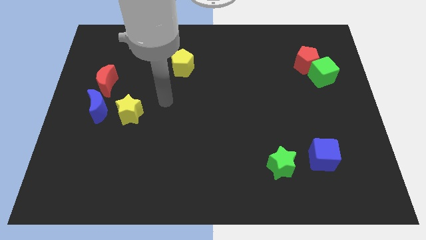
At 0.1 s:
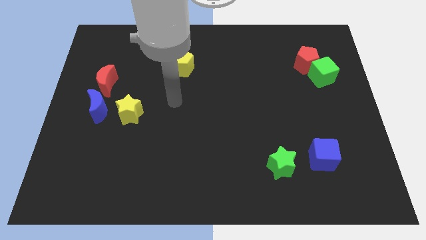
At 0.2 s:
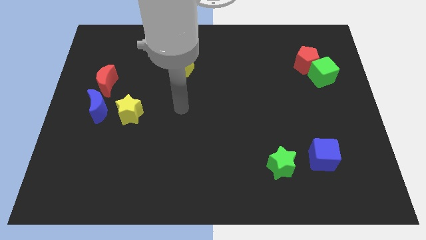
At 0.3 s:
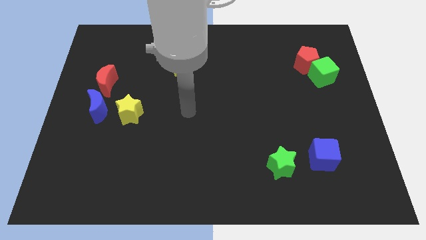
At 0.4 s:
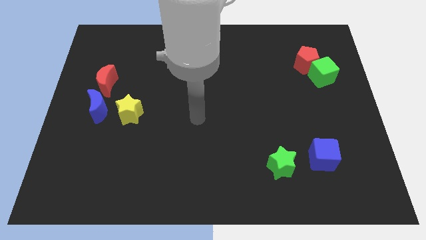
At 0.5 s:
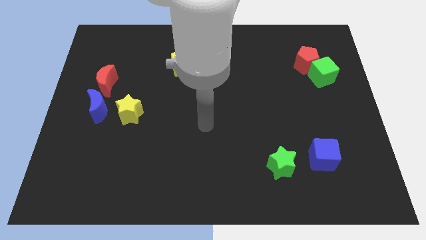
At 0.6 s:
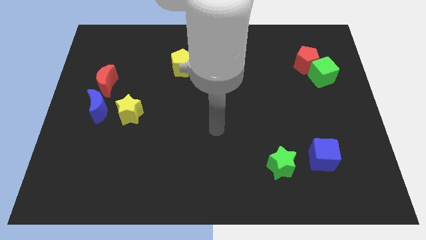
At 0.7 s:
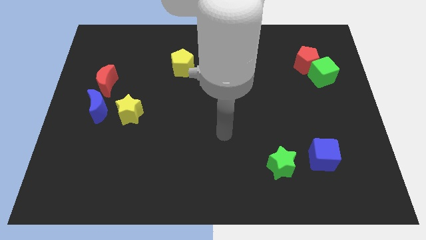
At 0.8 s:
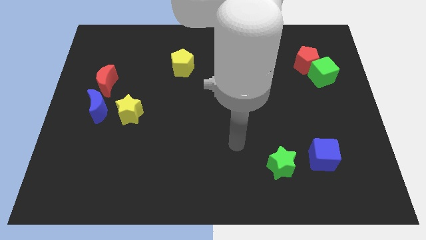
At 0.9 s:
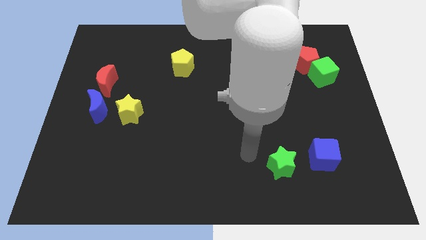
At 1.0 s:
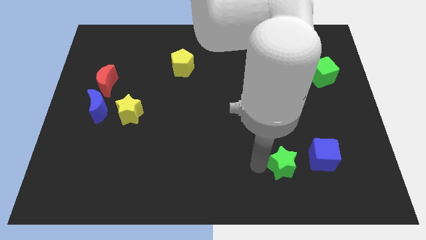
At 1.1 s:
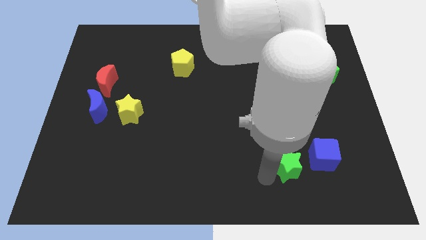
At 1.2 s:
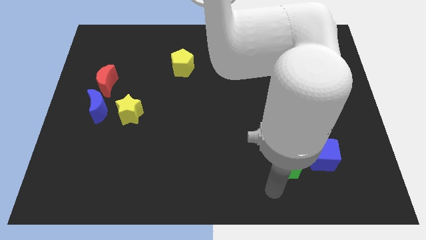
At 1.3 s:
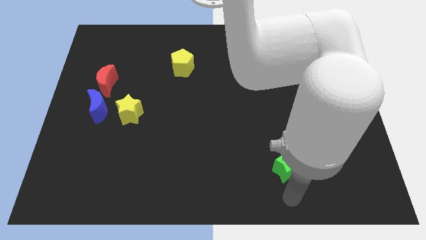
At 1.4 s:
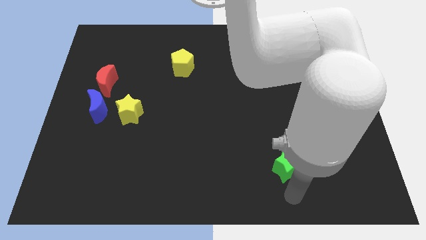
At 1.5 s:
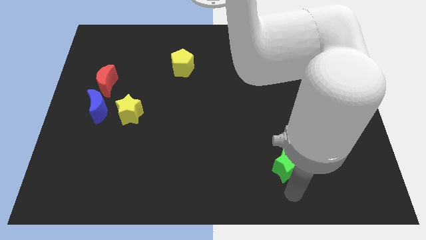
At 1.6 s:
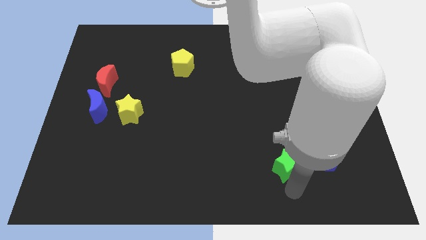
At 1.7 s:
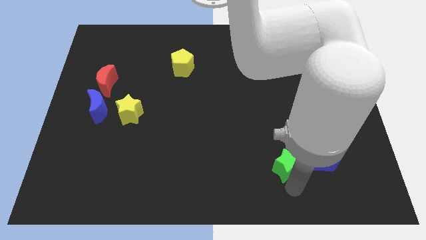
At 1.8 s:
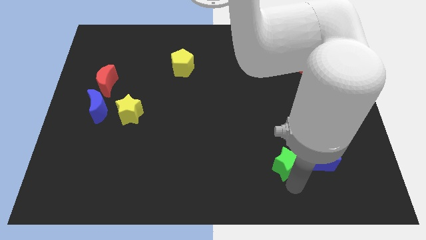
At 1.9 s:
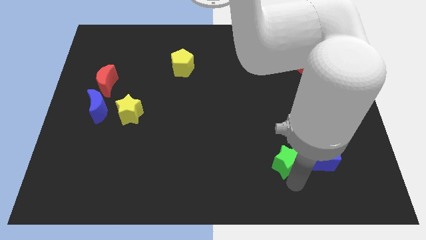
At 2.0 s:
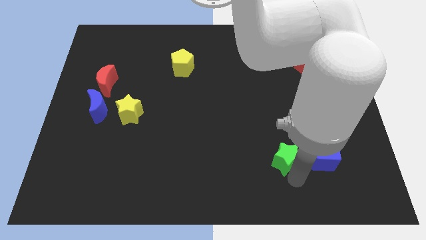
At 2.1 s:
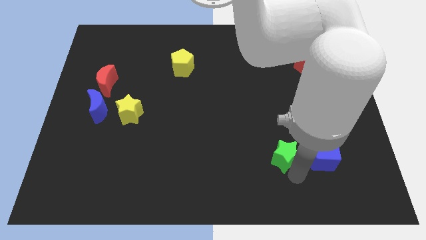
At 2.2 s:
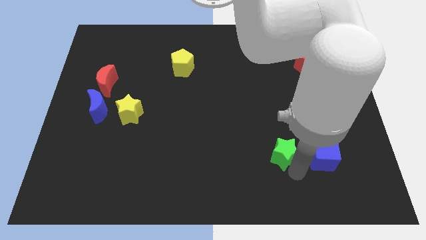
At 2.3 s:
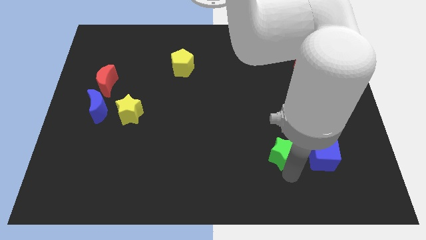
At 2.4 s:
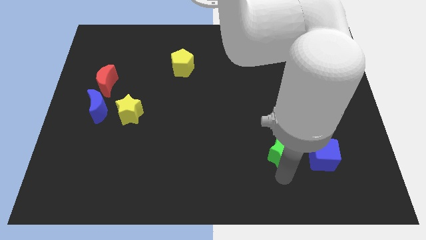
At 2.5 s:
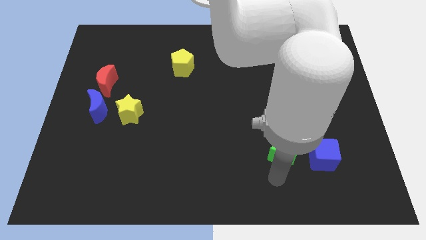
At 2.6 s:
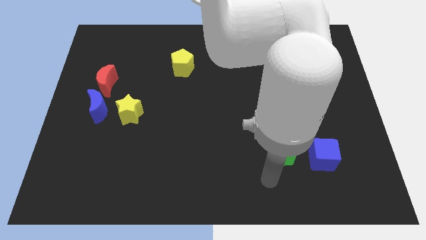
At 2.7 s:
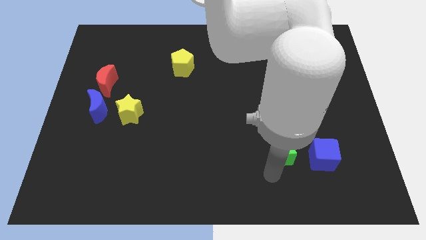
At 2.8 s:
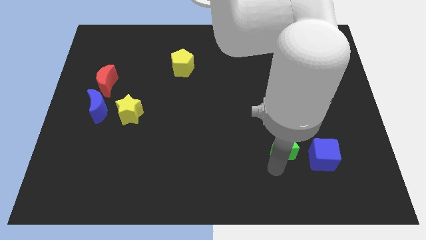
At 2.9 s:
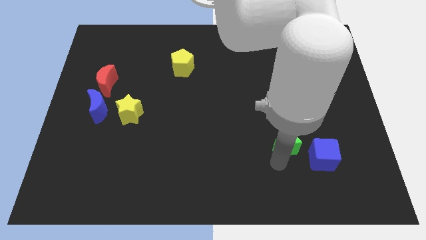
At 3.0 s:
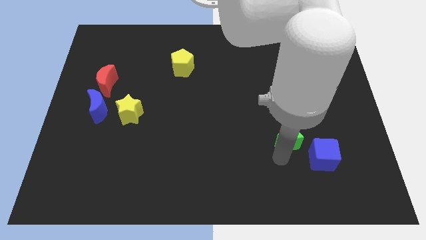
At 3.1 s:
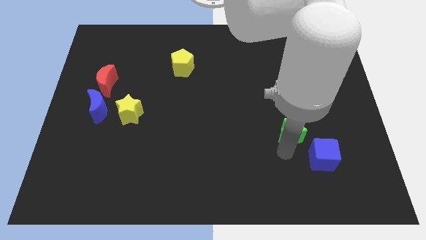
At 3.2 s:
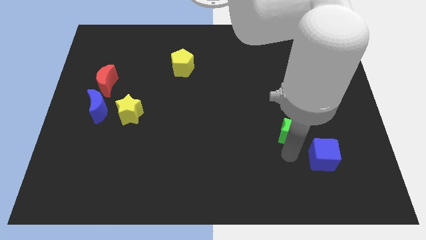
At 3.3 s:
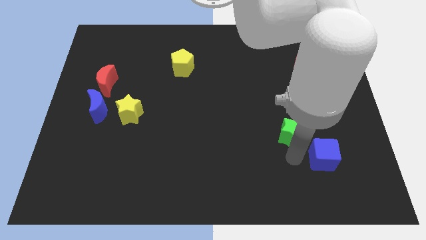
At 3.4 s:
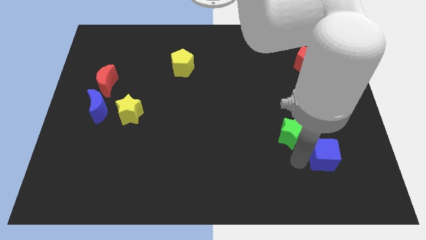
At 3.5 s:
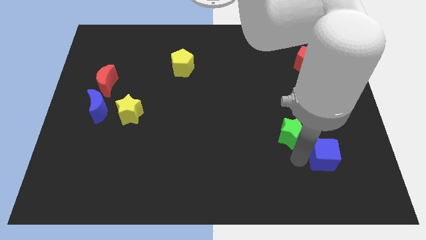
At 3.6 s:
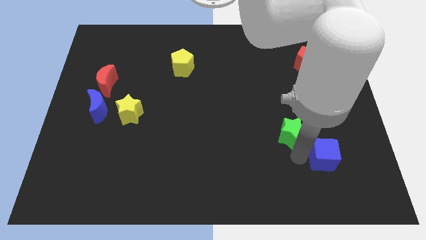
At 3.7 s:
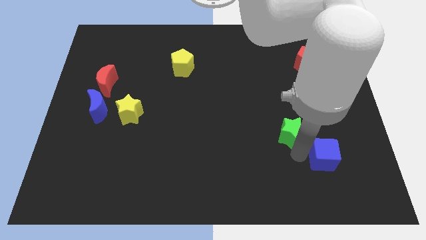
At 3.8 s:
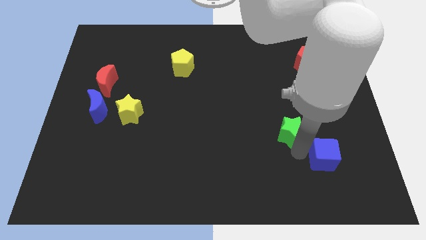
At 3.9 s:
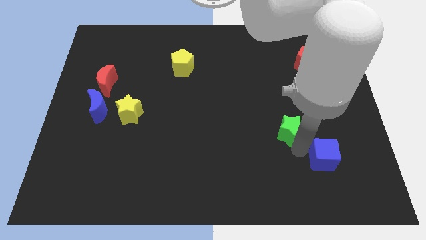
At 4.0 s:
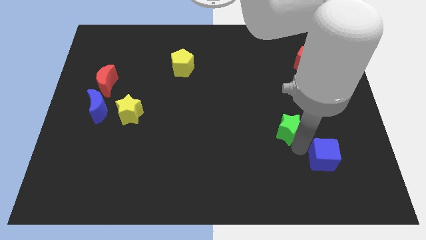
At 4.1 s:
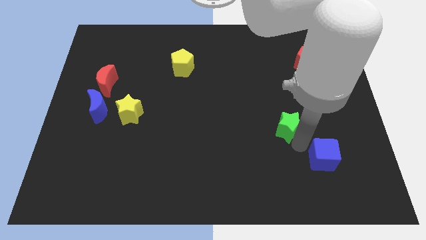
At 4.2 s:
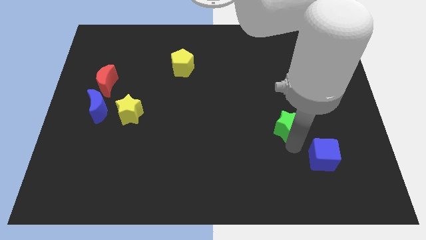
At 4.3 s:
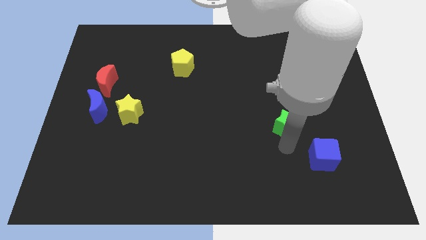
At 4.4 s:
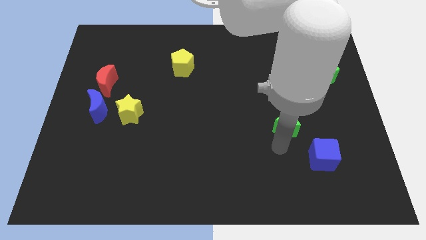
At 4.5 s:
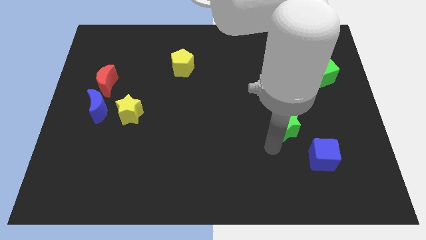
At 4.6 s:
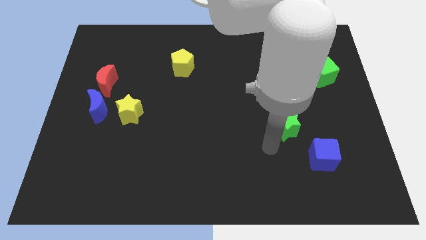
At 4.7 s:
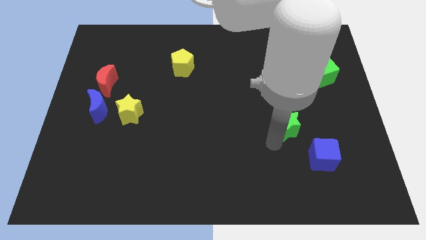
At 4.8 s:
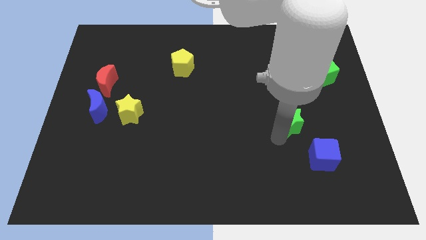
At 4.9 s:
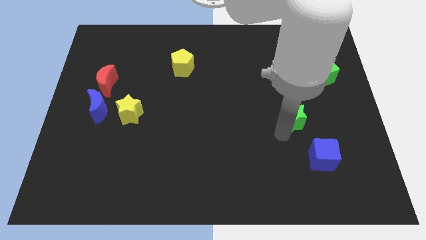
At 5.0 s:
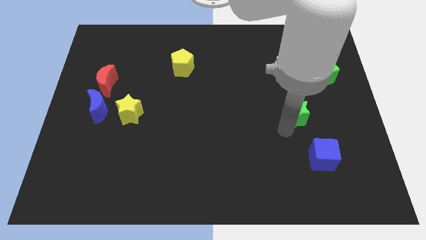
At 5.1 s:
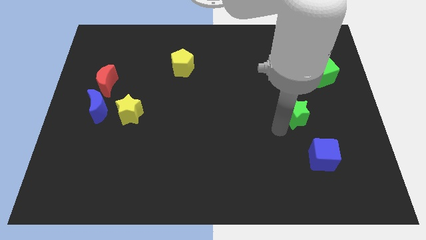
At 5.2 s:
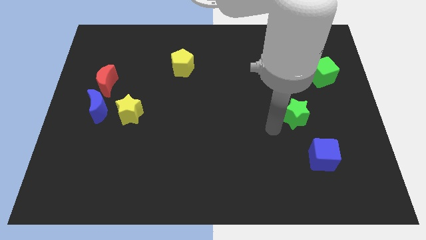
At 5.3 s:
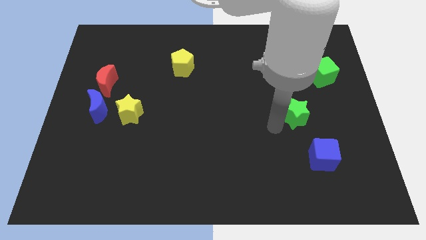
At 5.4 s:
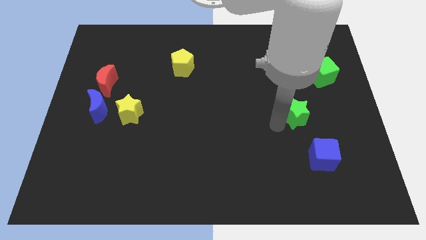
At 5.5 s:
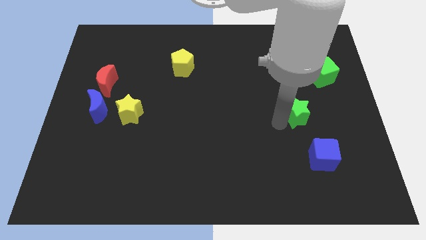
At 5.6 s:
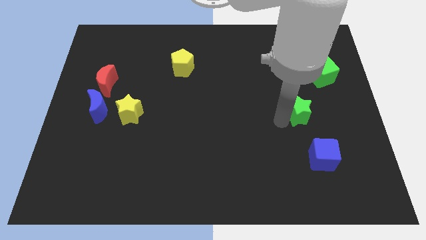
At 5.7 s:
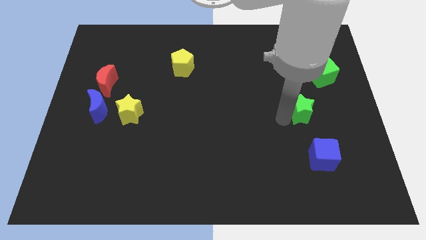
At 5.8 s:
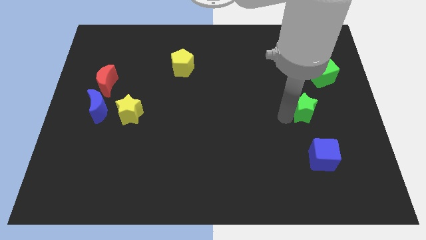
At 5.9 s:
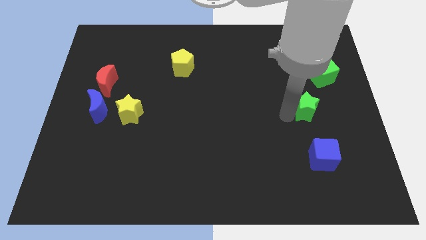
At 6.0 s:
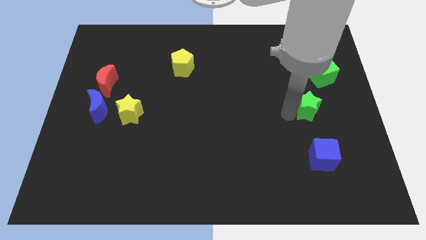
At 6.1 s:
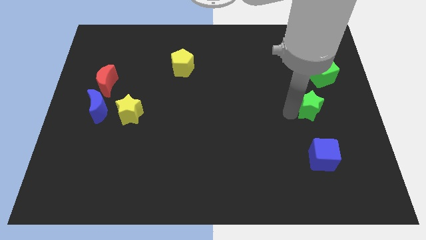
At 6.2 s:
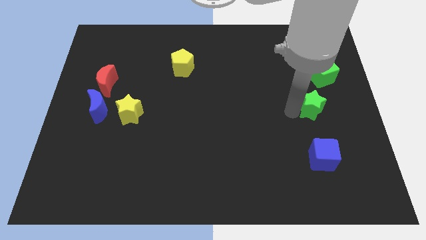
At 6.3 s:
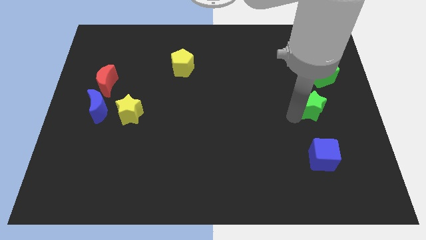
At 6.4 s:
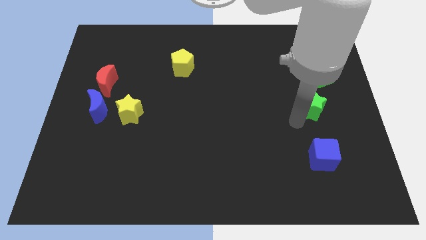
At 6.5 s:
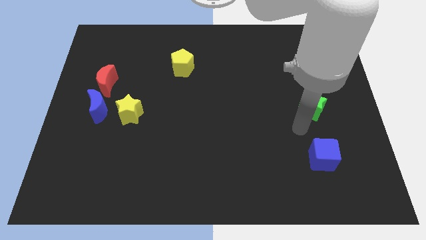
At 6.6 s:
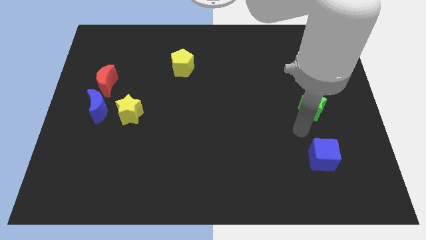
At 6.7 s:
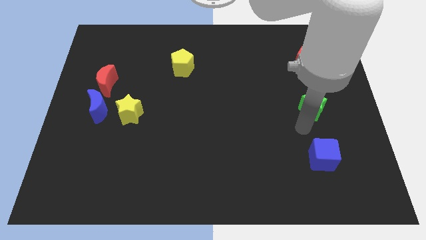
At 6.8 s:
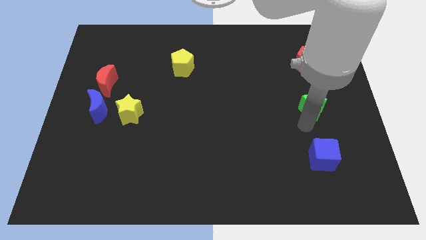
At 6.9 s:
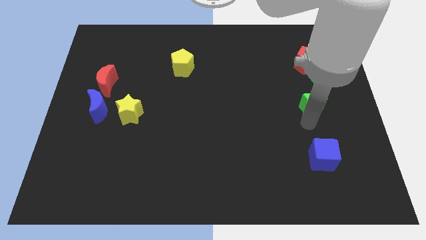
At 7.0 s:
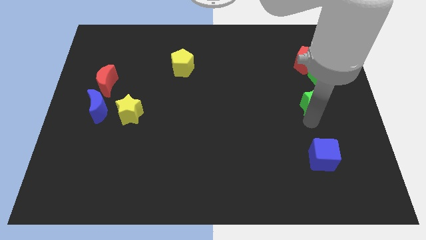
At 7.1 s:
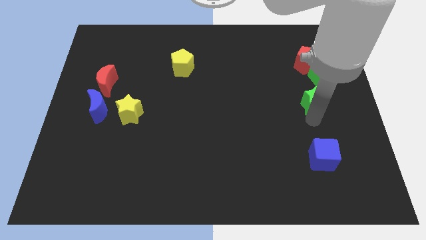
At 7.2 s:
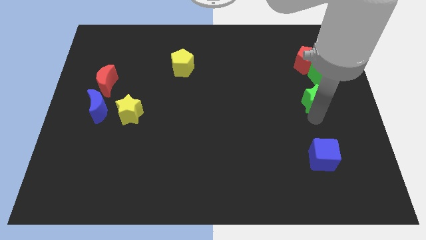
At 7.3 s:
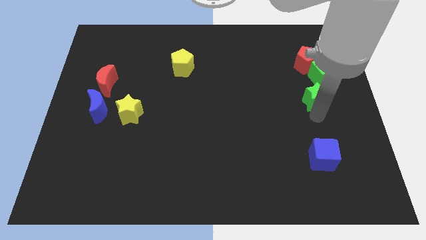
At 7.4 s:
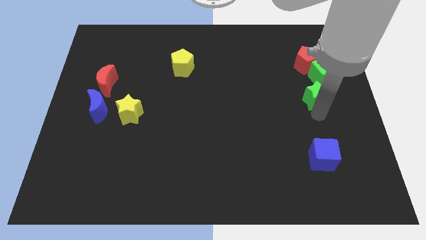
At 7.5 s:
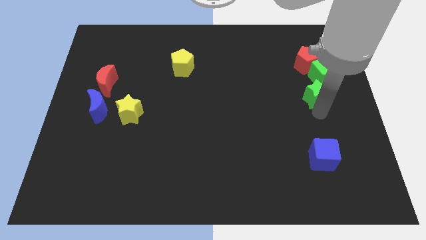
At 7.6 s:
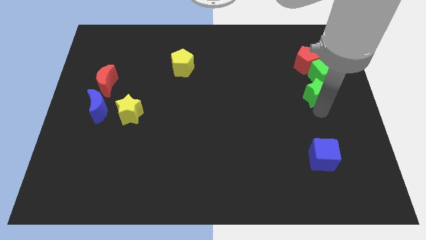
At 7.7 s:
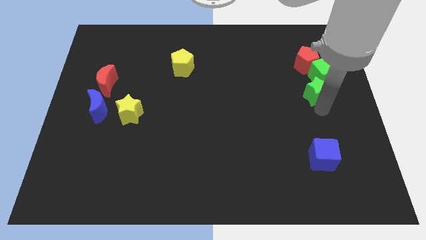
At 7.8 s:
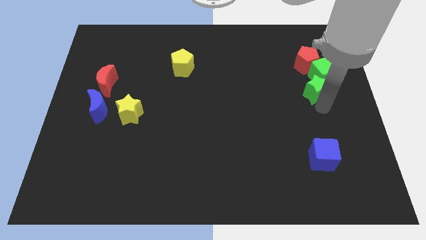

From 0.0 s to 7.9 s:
slide the green star next to the green cube
